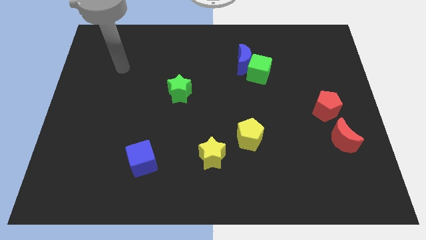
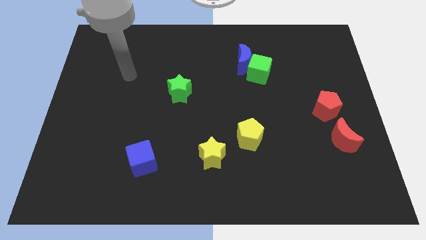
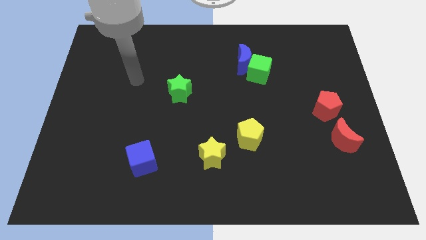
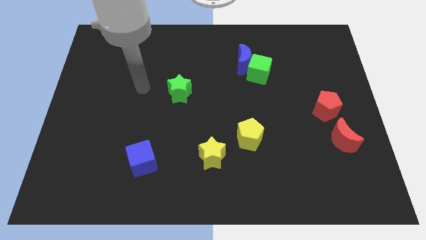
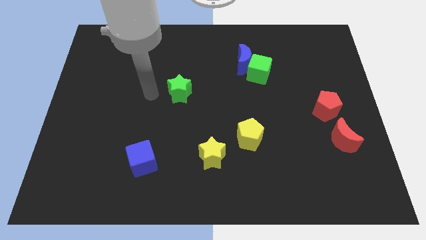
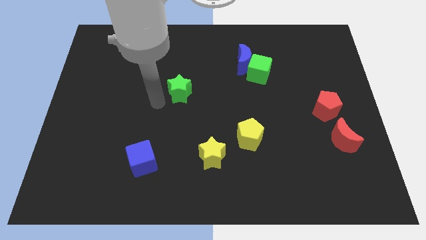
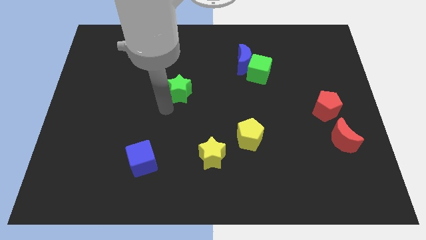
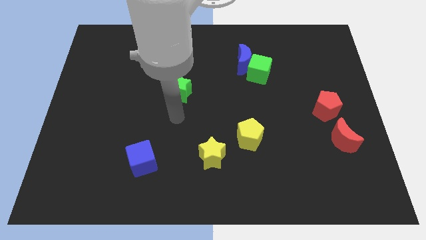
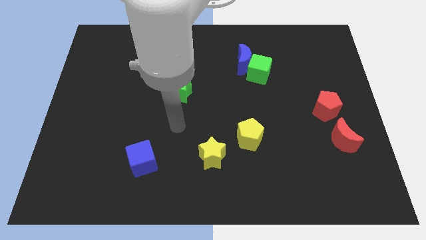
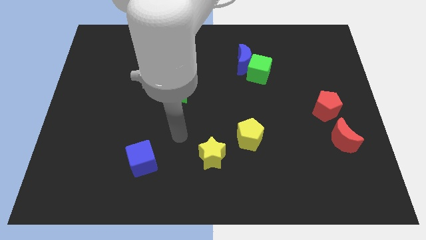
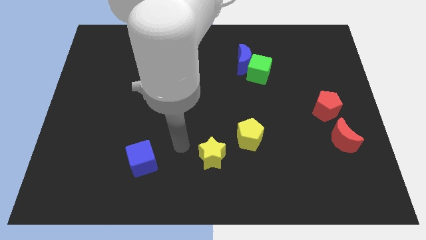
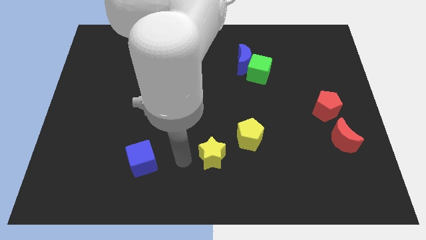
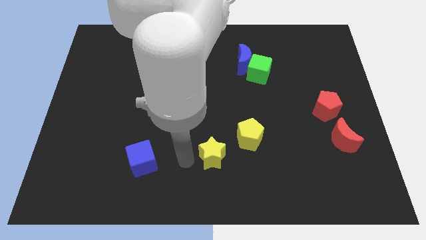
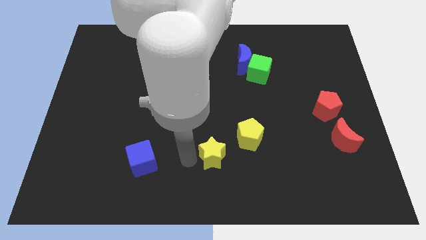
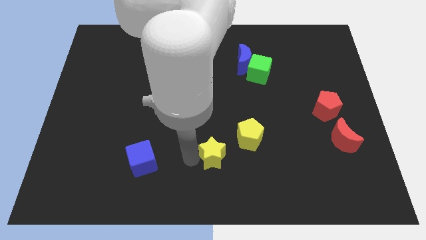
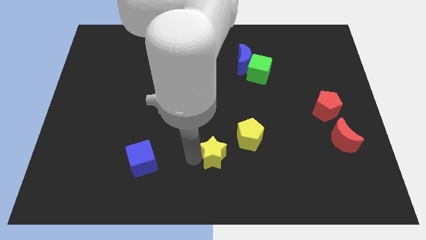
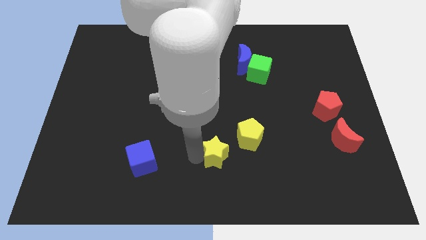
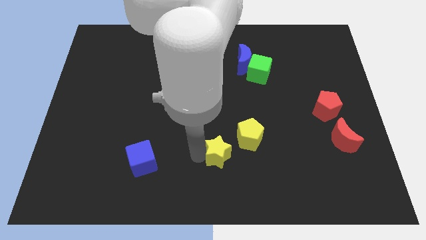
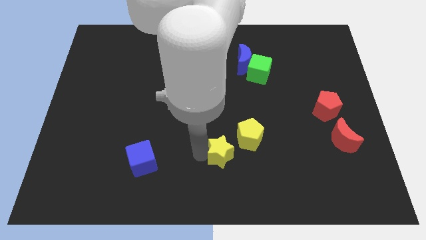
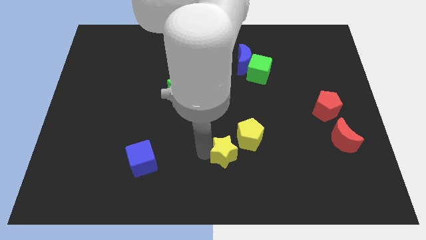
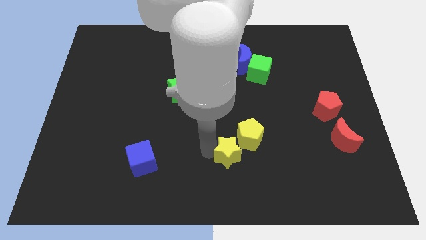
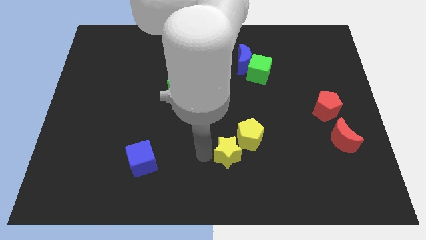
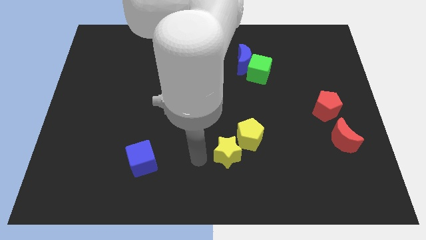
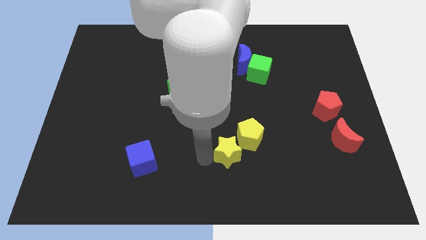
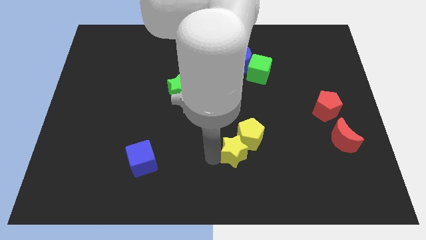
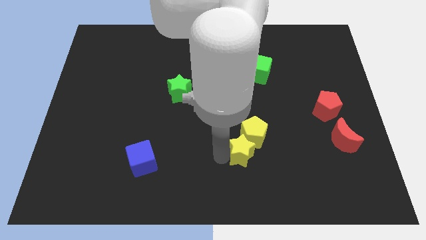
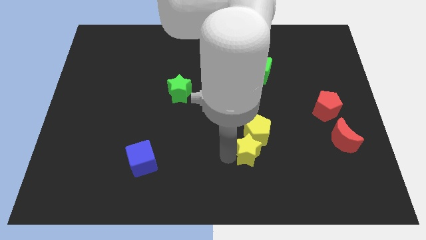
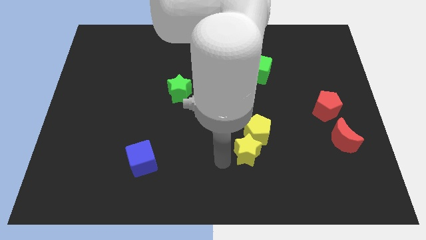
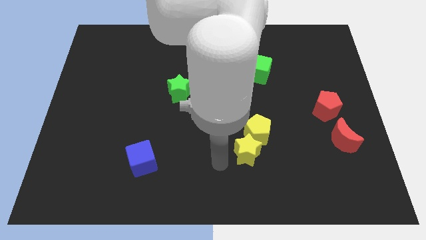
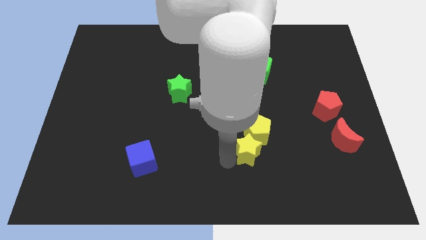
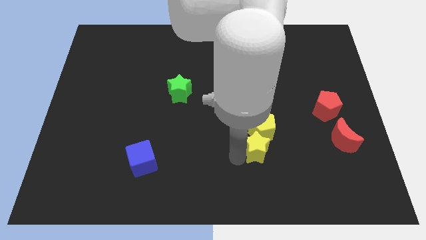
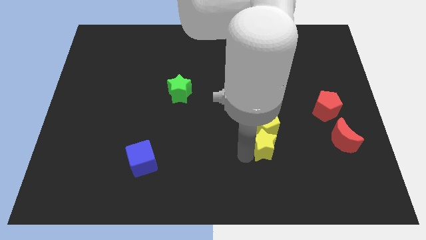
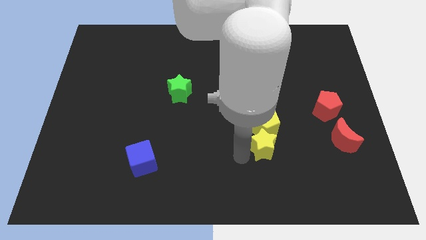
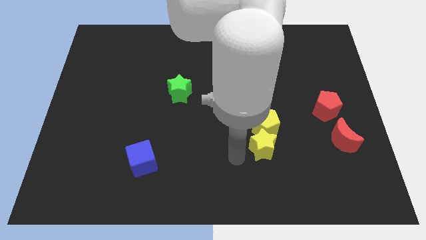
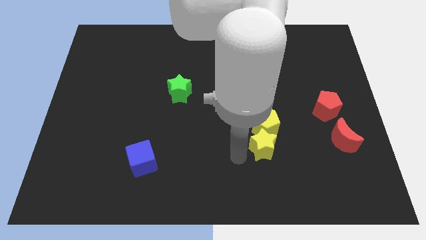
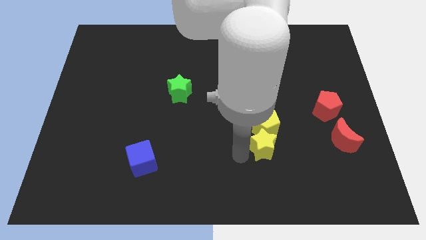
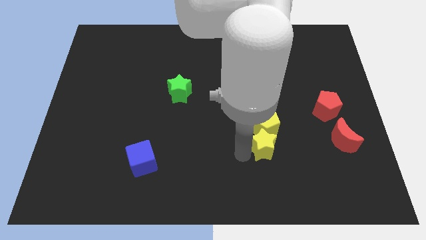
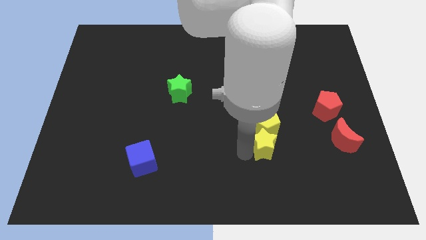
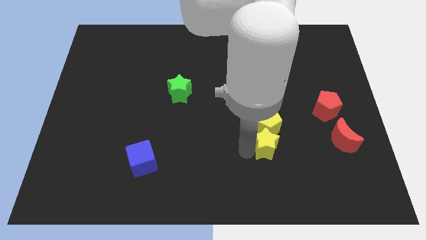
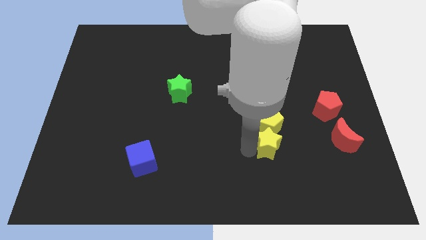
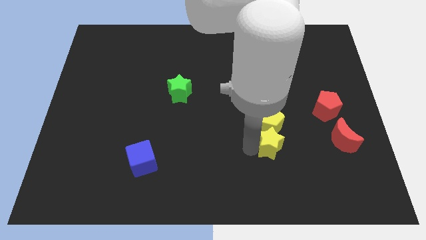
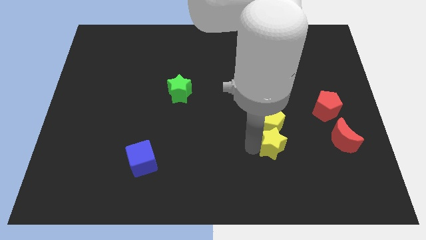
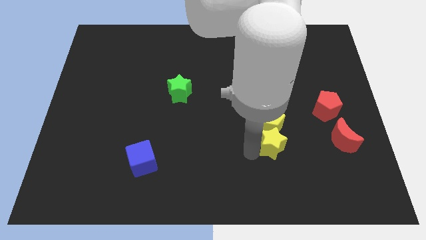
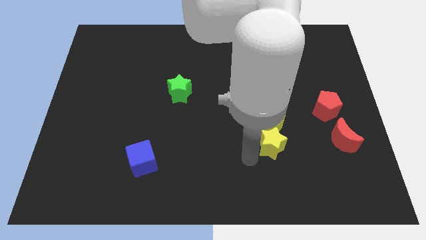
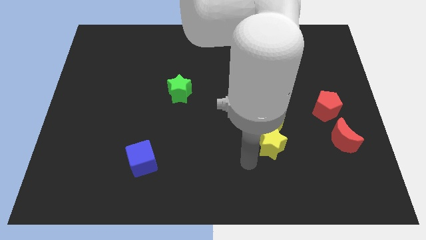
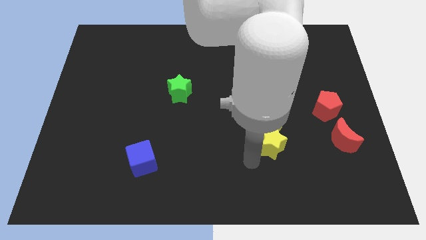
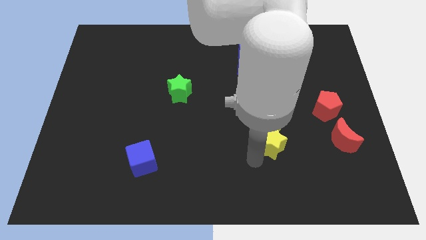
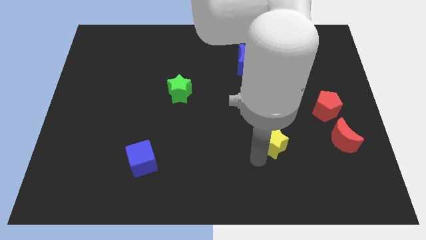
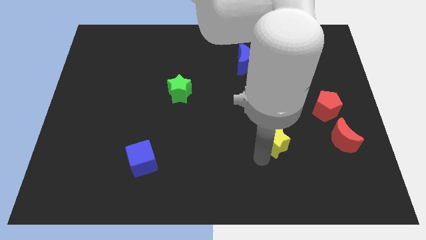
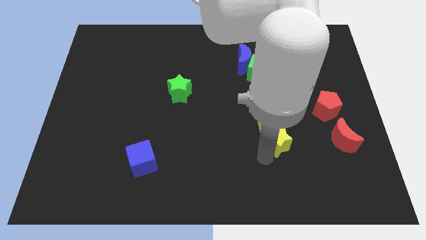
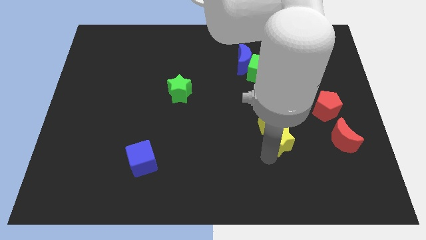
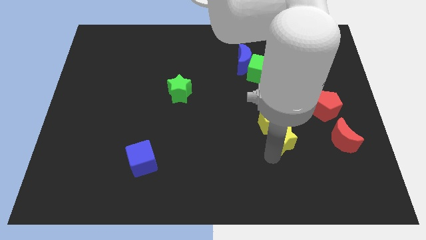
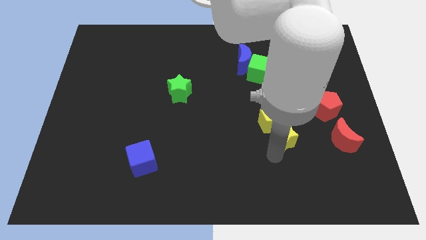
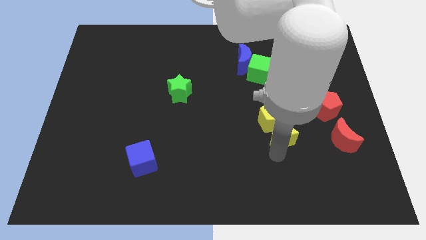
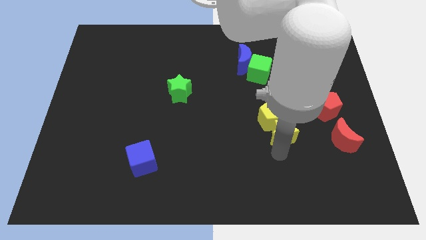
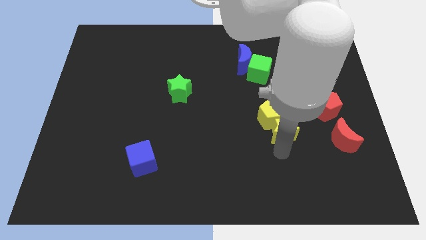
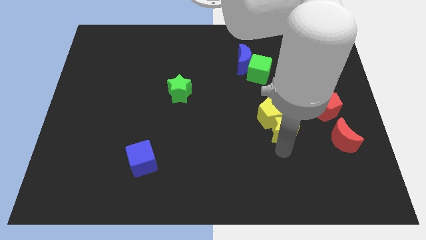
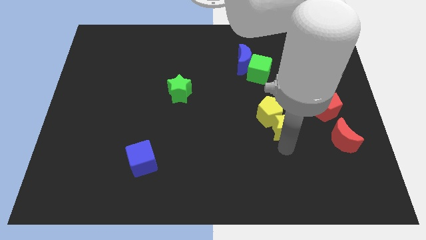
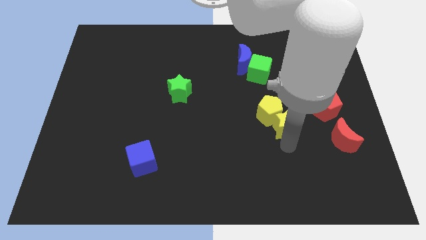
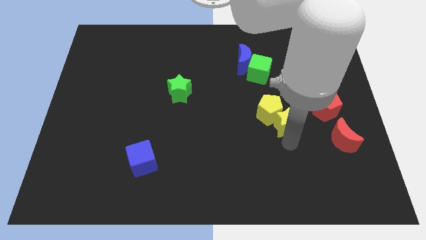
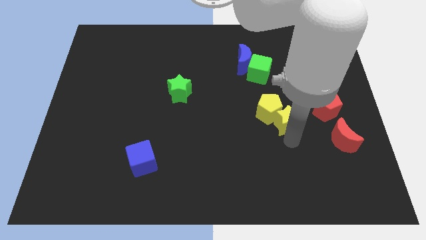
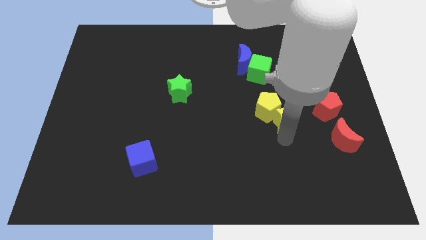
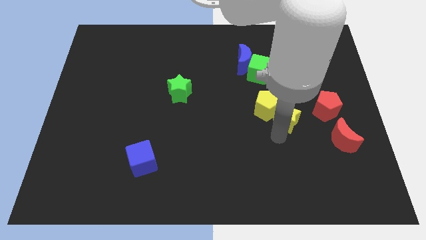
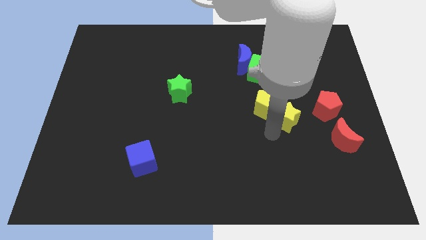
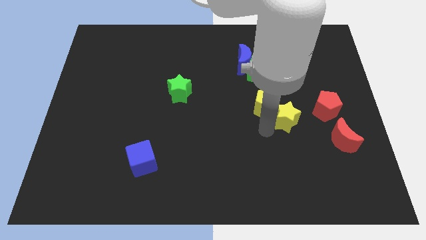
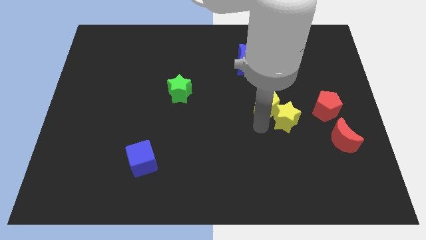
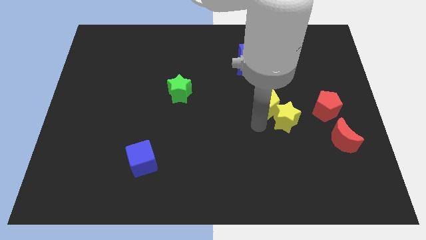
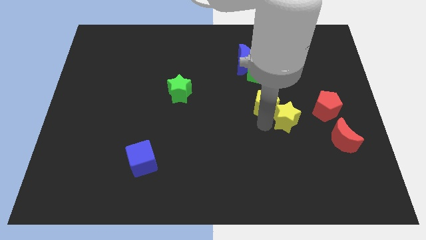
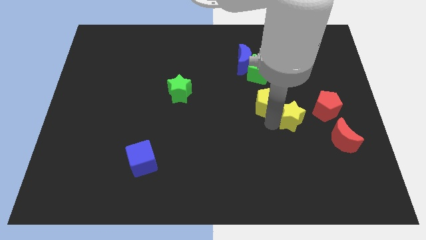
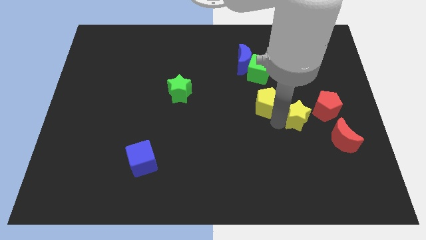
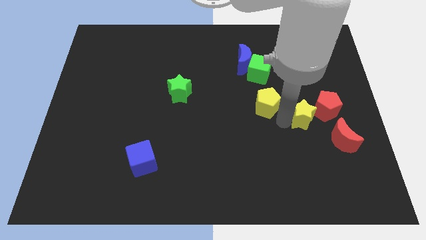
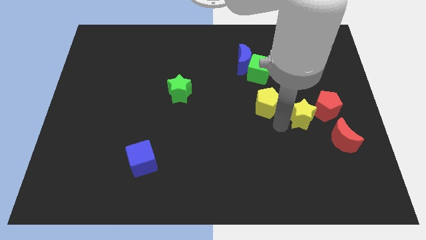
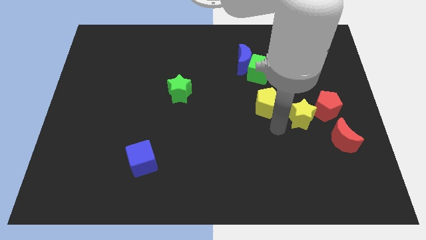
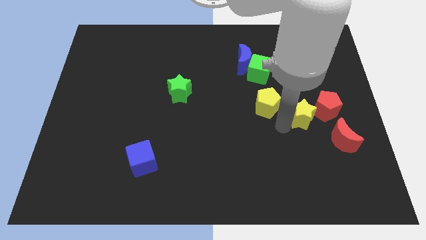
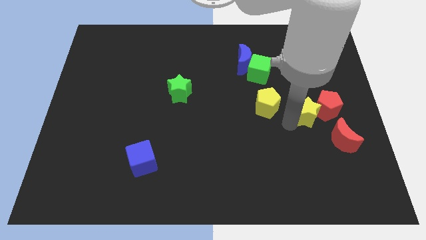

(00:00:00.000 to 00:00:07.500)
put the yellow star to the red pentagon
